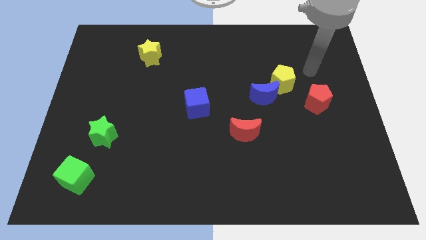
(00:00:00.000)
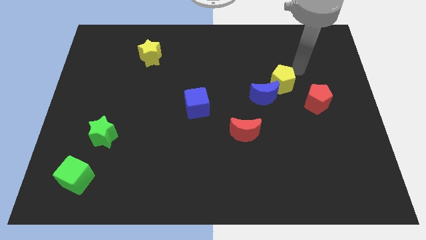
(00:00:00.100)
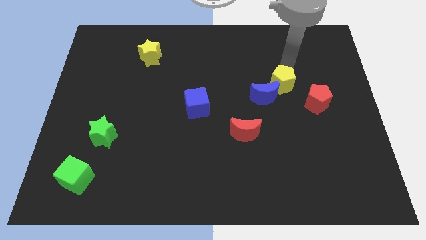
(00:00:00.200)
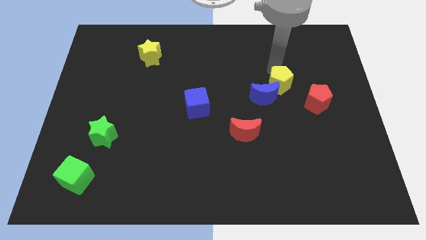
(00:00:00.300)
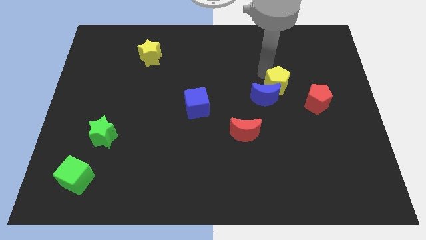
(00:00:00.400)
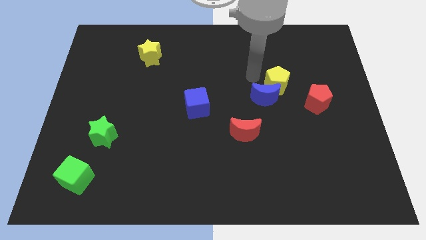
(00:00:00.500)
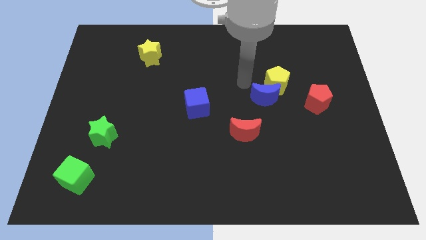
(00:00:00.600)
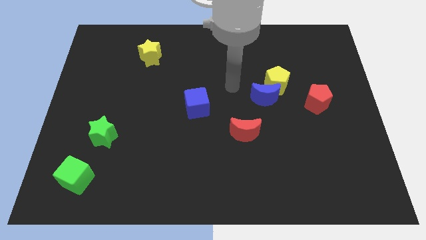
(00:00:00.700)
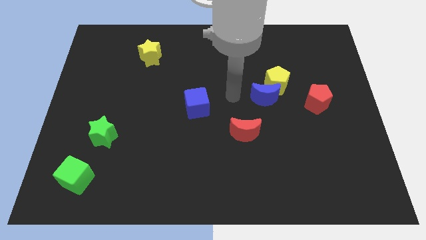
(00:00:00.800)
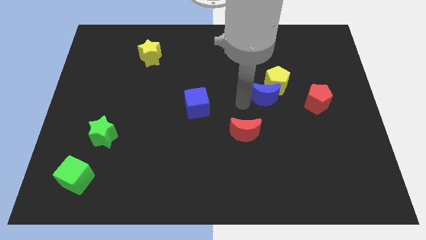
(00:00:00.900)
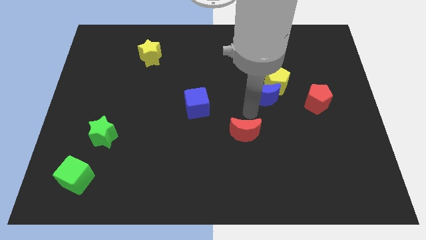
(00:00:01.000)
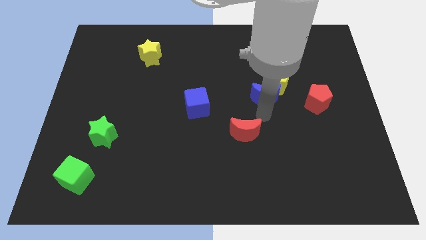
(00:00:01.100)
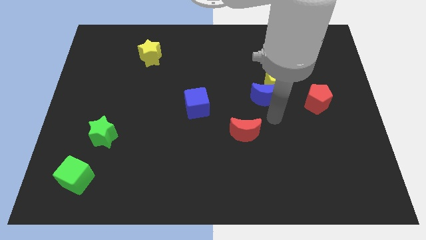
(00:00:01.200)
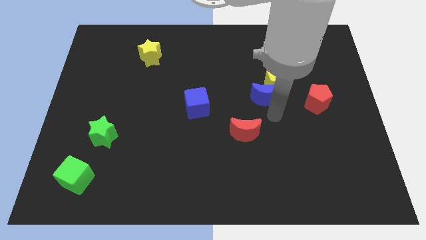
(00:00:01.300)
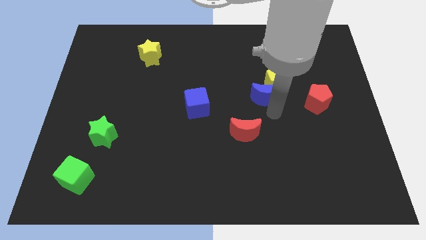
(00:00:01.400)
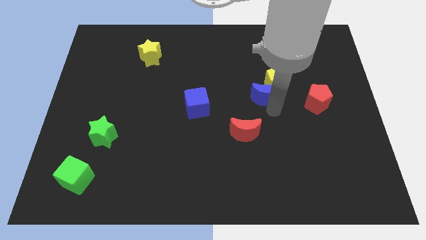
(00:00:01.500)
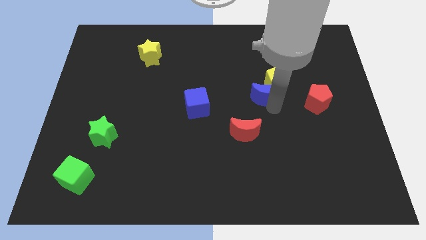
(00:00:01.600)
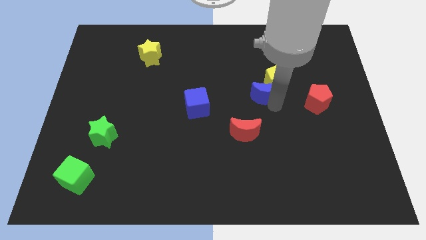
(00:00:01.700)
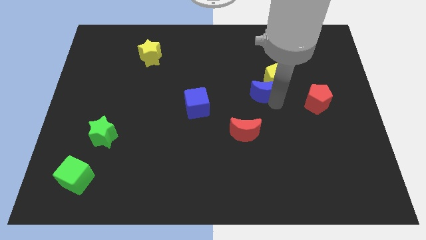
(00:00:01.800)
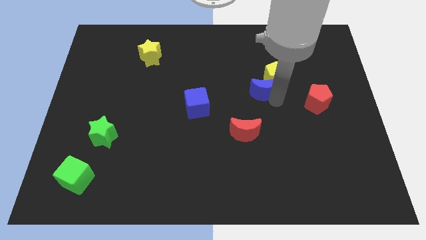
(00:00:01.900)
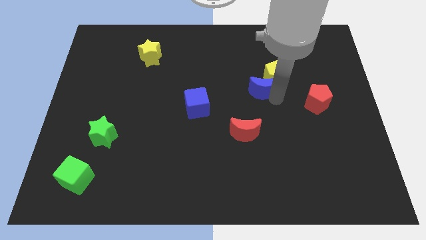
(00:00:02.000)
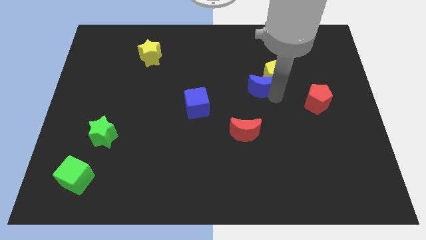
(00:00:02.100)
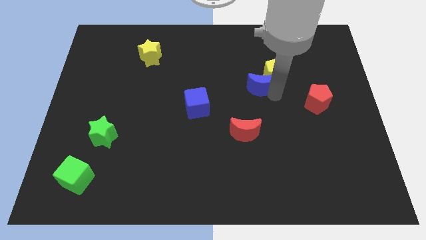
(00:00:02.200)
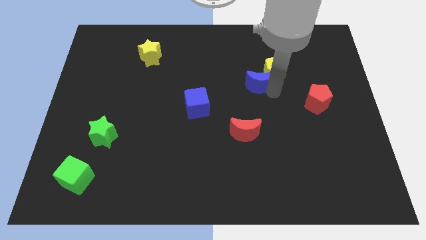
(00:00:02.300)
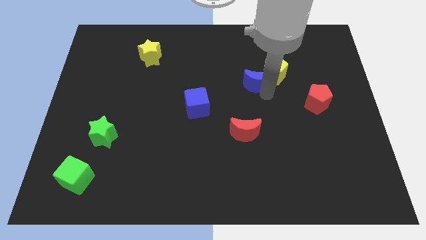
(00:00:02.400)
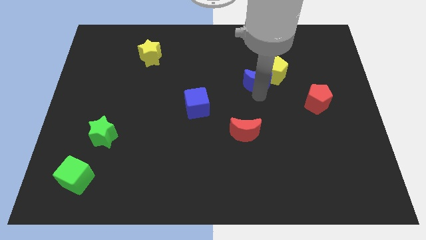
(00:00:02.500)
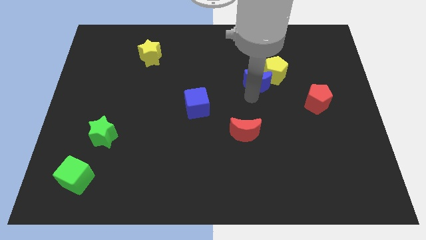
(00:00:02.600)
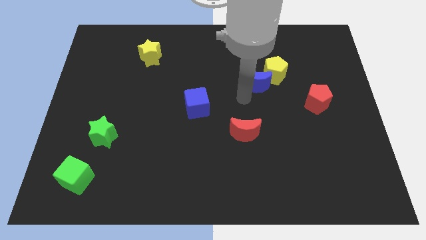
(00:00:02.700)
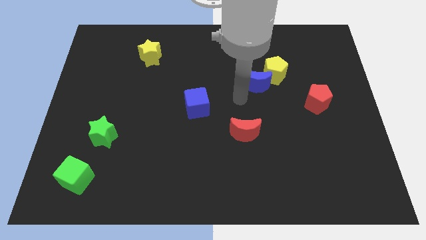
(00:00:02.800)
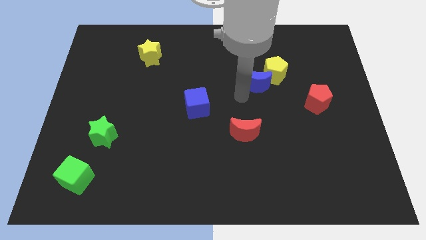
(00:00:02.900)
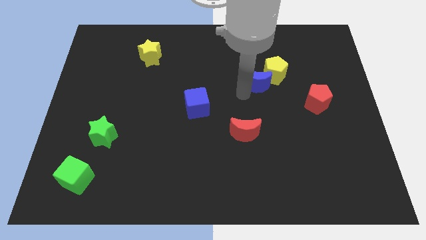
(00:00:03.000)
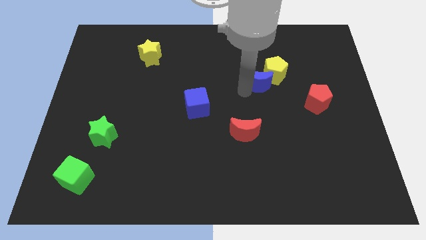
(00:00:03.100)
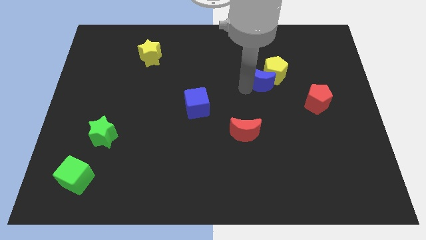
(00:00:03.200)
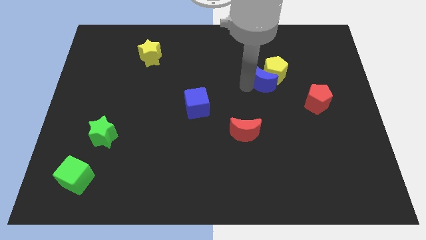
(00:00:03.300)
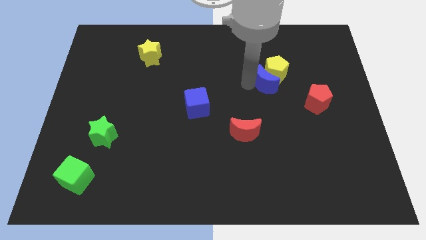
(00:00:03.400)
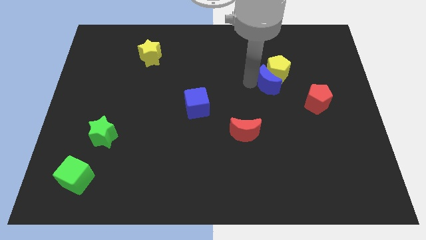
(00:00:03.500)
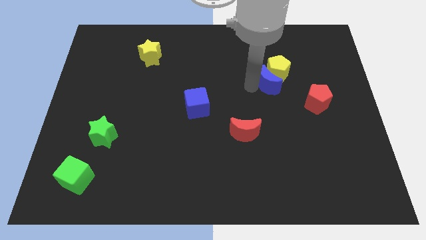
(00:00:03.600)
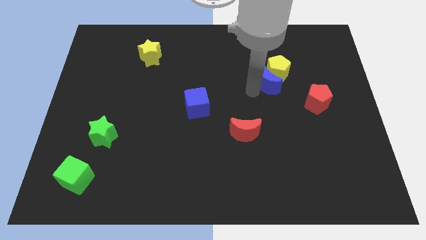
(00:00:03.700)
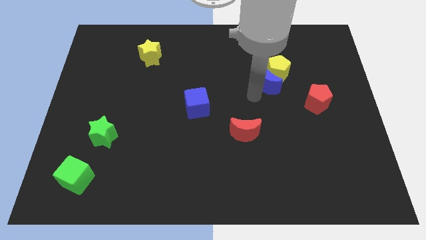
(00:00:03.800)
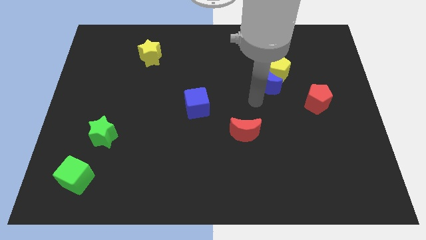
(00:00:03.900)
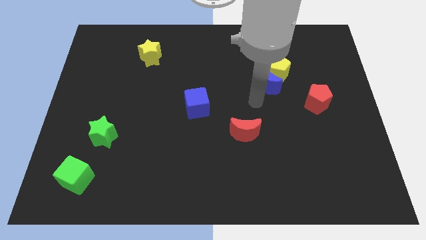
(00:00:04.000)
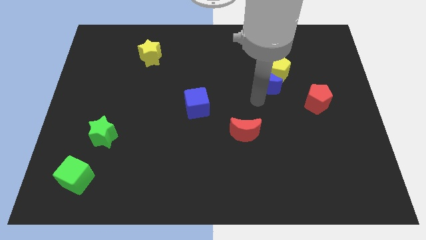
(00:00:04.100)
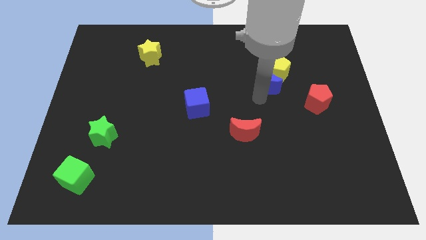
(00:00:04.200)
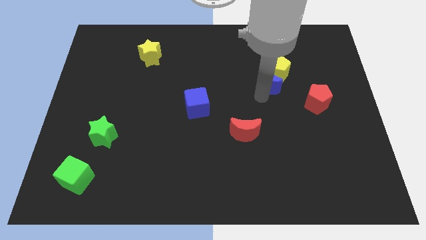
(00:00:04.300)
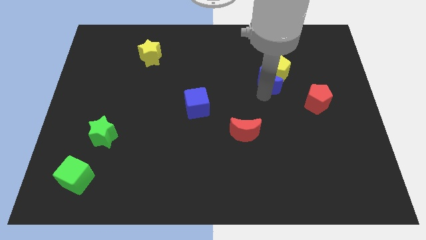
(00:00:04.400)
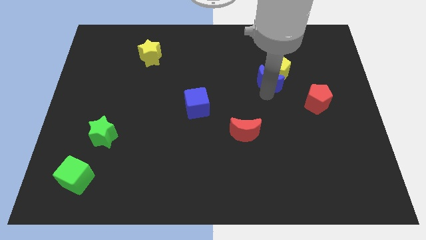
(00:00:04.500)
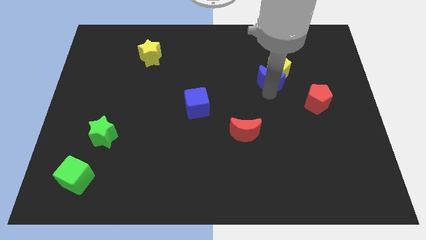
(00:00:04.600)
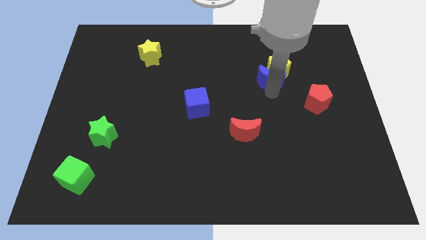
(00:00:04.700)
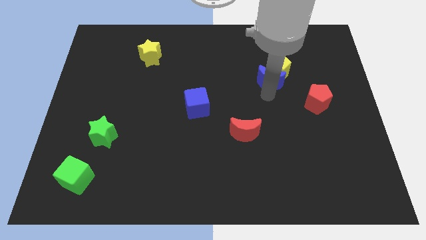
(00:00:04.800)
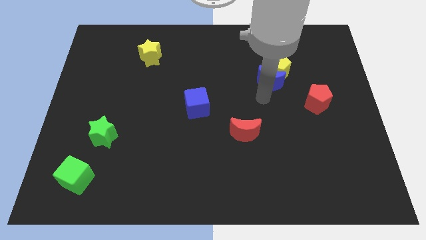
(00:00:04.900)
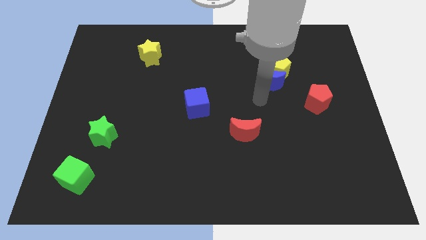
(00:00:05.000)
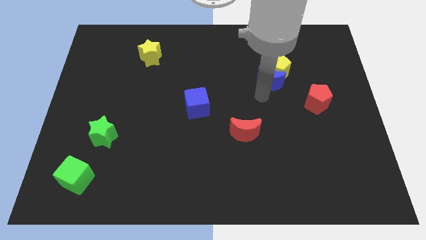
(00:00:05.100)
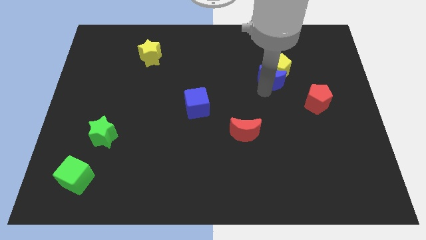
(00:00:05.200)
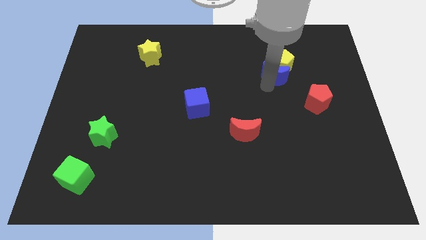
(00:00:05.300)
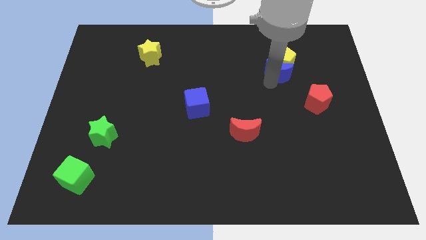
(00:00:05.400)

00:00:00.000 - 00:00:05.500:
slightly slide the blue moon upwards and to the right diagonally

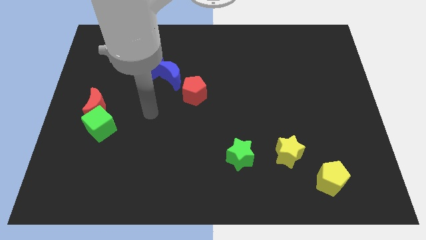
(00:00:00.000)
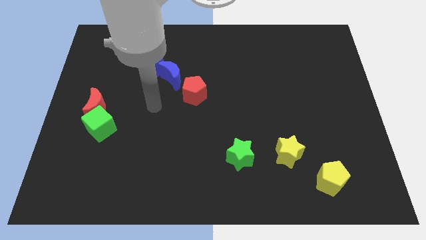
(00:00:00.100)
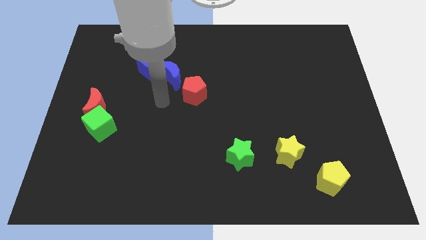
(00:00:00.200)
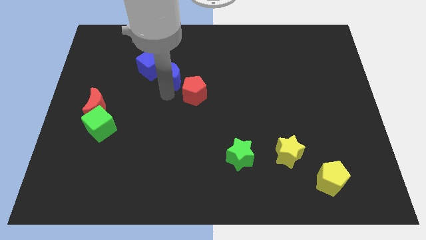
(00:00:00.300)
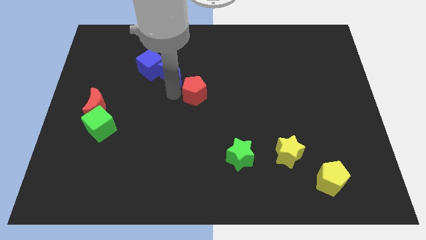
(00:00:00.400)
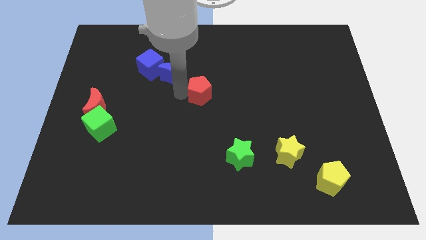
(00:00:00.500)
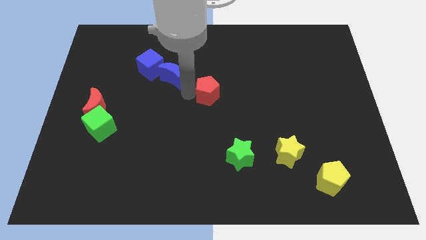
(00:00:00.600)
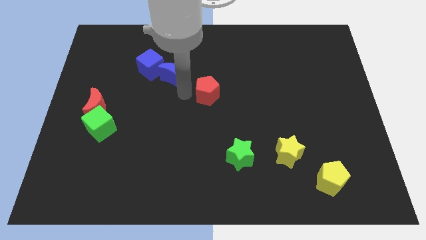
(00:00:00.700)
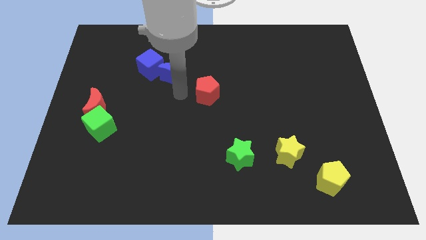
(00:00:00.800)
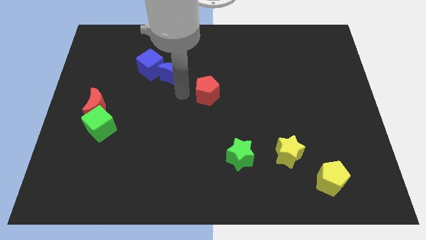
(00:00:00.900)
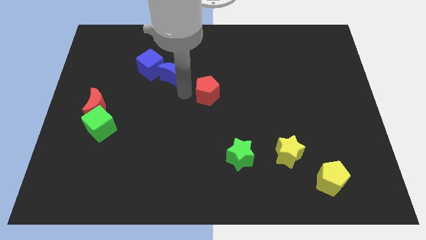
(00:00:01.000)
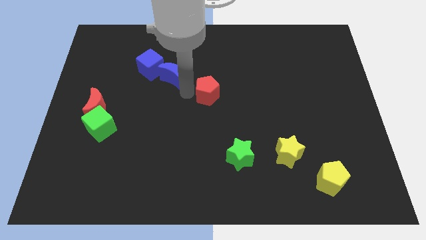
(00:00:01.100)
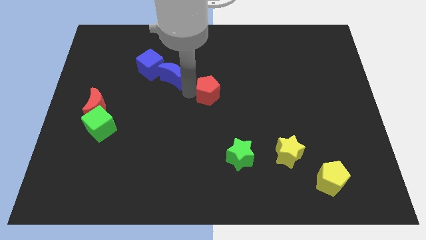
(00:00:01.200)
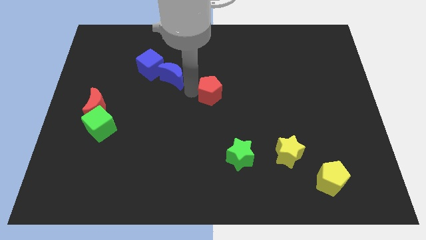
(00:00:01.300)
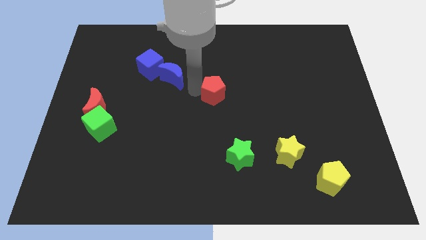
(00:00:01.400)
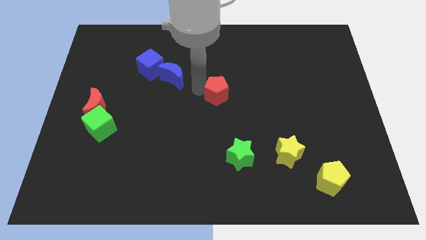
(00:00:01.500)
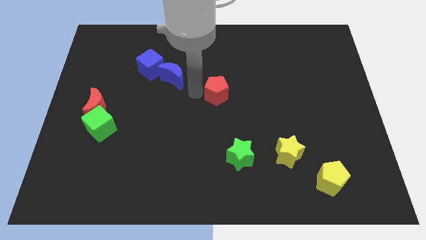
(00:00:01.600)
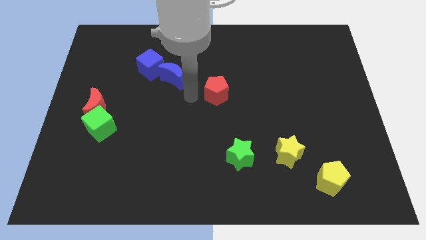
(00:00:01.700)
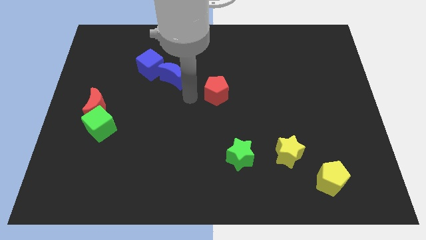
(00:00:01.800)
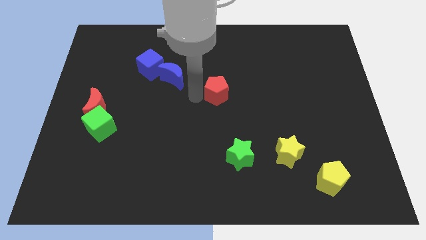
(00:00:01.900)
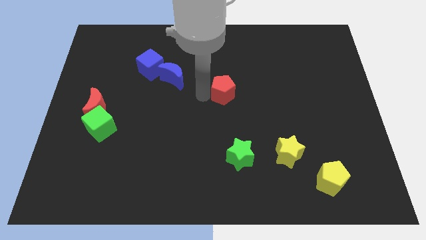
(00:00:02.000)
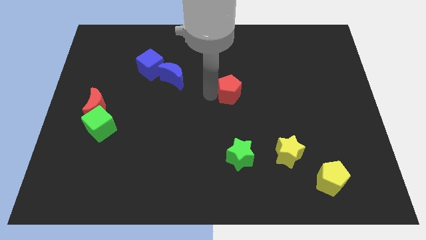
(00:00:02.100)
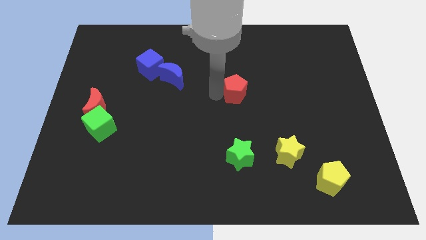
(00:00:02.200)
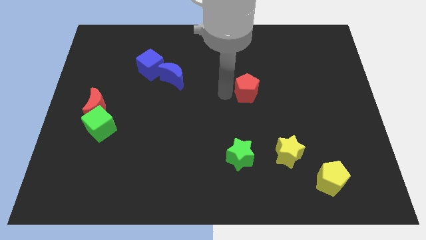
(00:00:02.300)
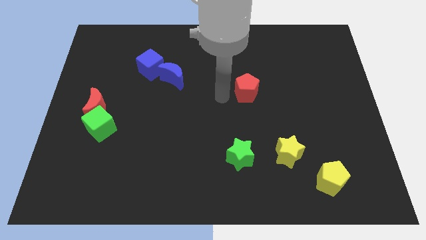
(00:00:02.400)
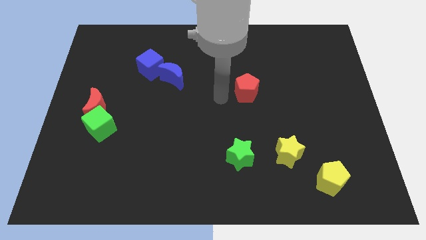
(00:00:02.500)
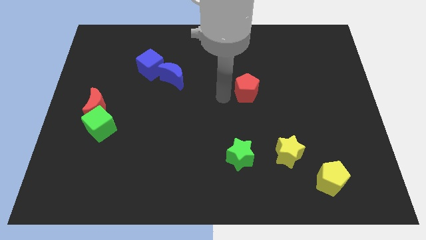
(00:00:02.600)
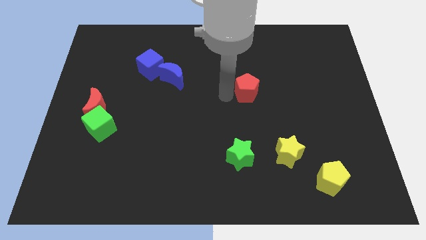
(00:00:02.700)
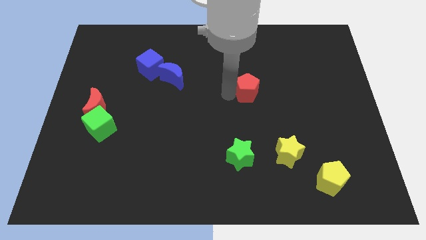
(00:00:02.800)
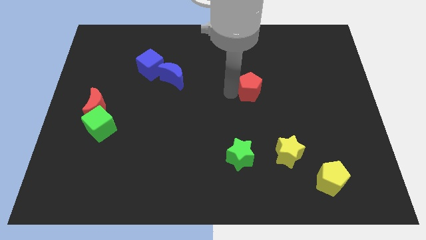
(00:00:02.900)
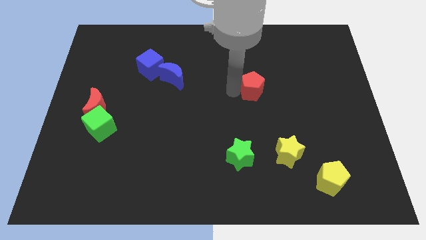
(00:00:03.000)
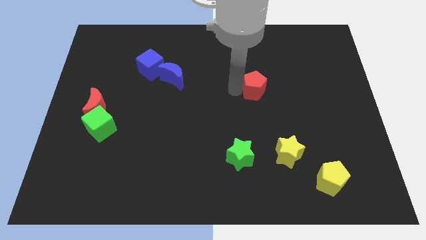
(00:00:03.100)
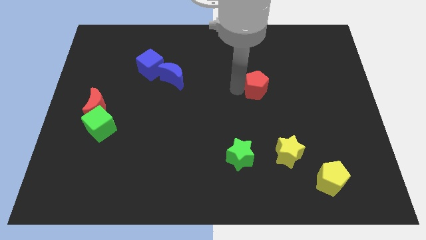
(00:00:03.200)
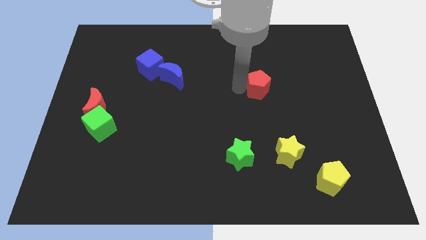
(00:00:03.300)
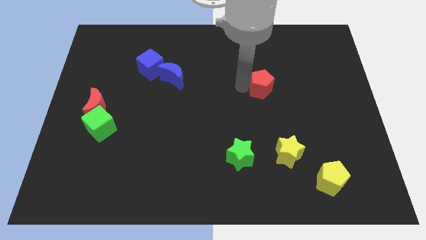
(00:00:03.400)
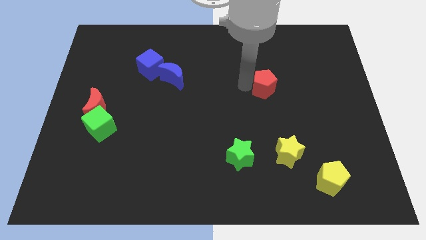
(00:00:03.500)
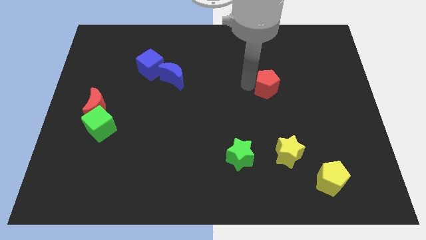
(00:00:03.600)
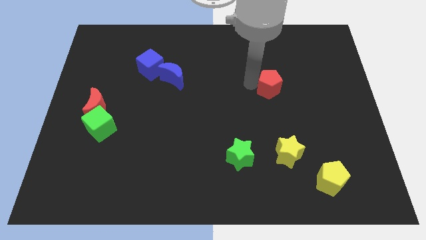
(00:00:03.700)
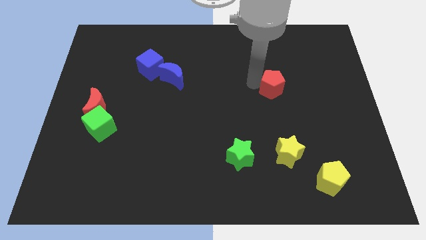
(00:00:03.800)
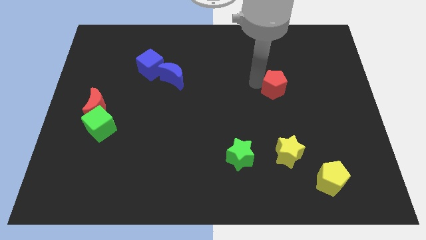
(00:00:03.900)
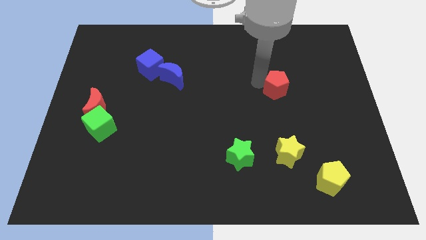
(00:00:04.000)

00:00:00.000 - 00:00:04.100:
move the red pentagon to the right
